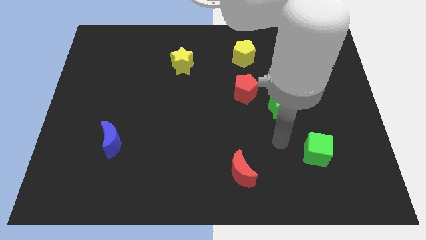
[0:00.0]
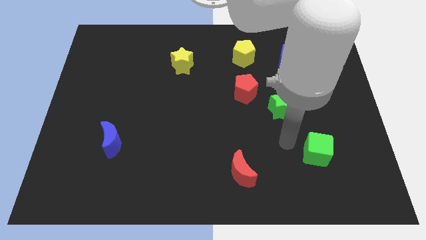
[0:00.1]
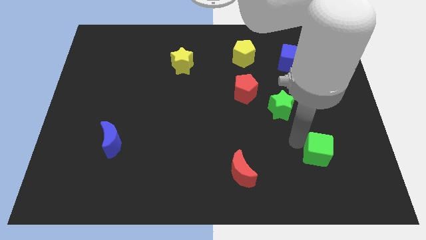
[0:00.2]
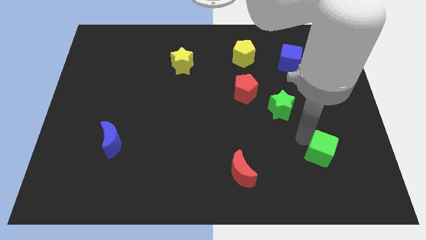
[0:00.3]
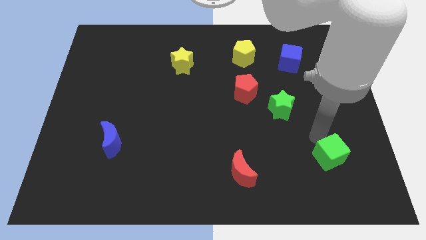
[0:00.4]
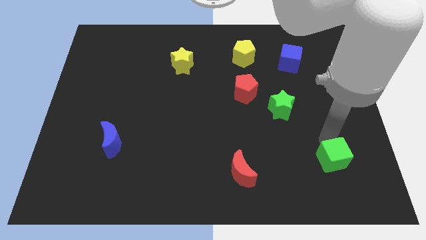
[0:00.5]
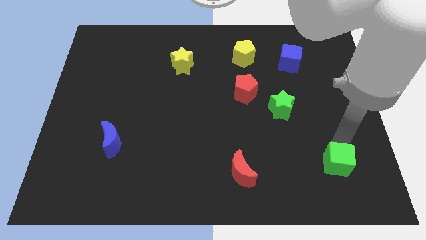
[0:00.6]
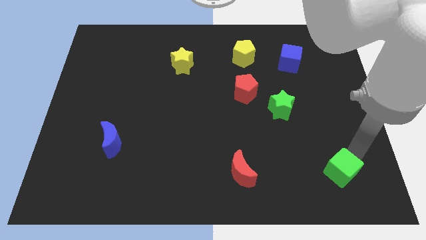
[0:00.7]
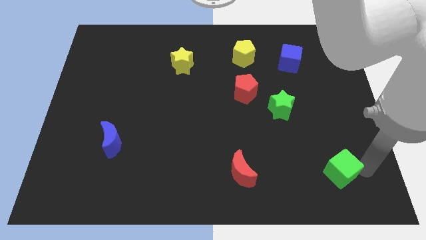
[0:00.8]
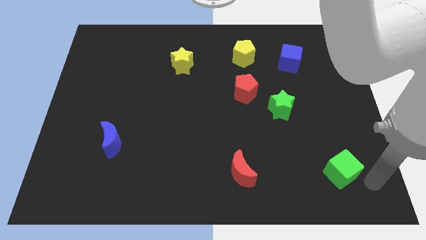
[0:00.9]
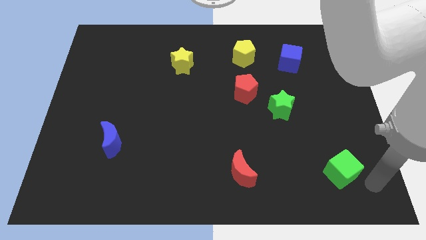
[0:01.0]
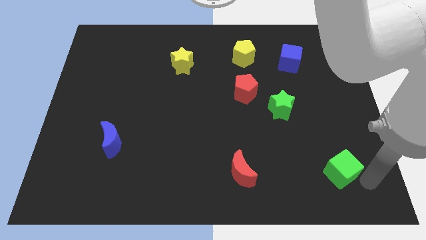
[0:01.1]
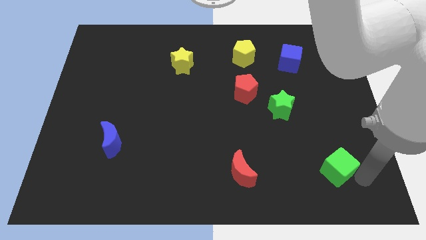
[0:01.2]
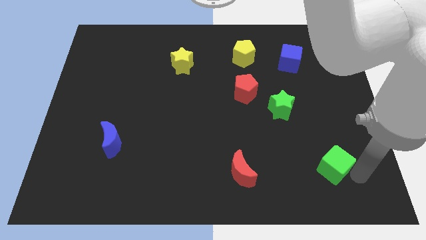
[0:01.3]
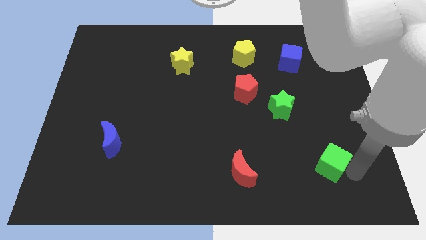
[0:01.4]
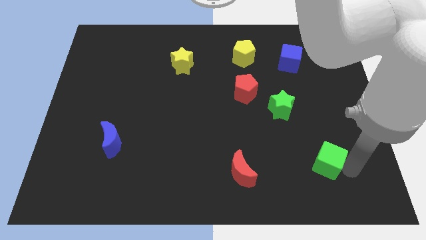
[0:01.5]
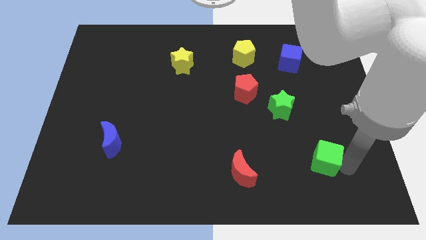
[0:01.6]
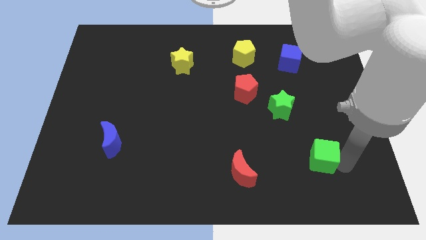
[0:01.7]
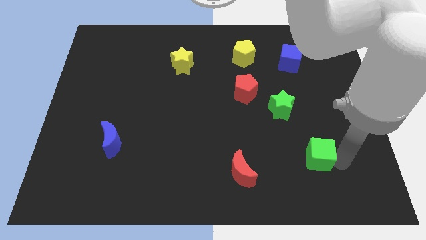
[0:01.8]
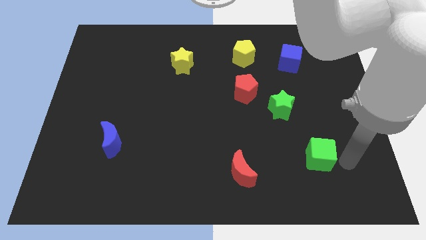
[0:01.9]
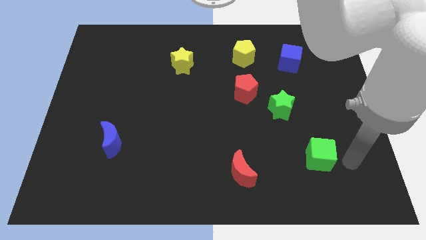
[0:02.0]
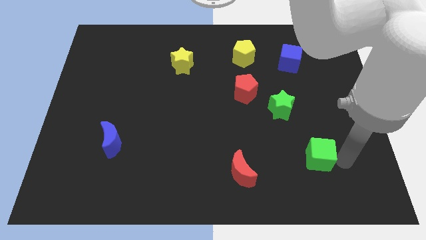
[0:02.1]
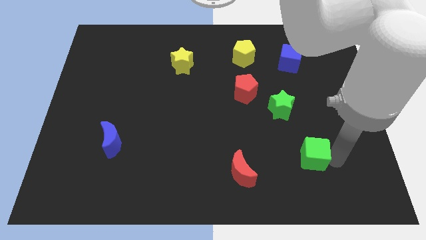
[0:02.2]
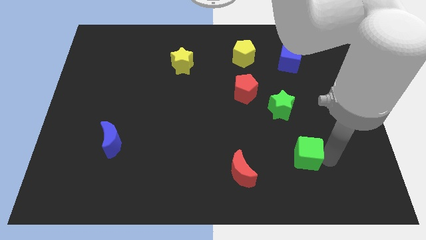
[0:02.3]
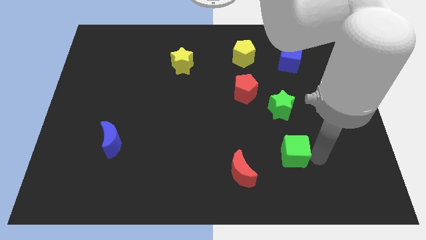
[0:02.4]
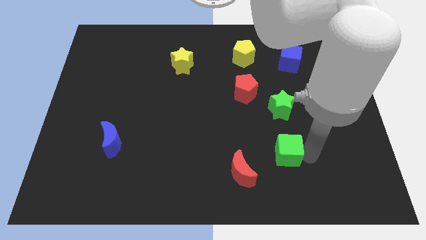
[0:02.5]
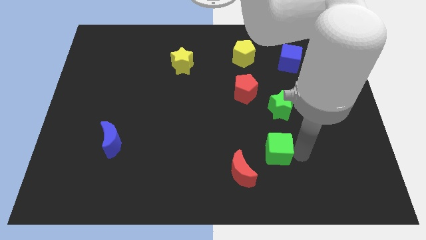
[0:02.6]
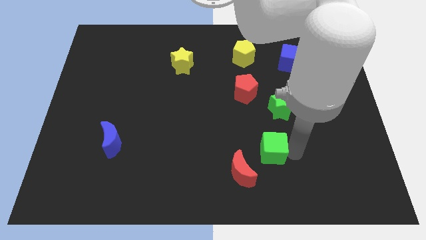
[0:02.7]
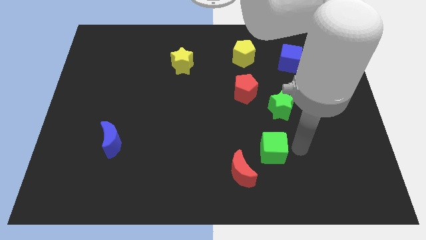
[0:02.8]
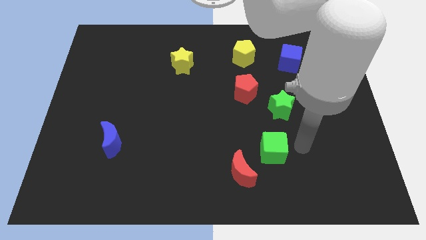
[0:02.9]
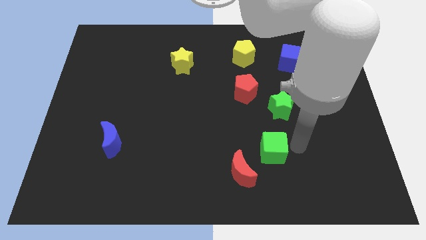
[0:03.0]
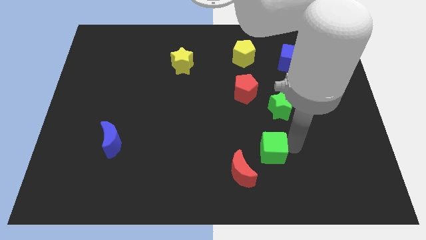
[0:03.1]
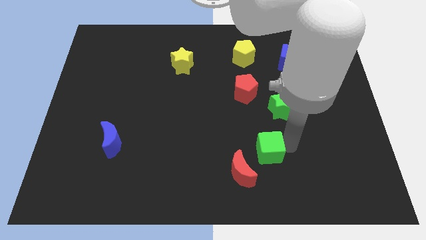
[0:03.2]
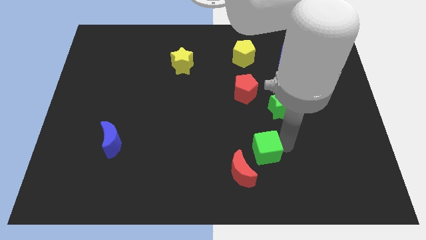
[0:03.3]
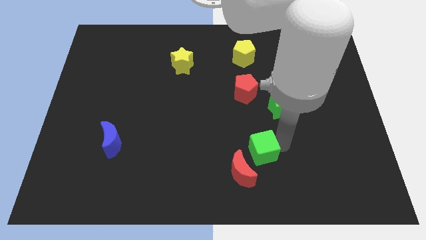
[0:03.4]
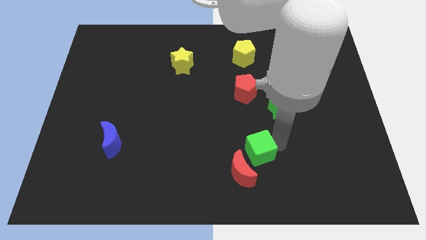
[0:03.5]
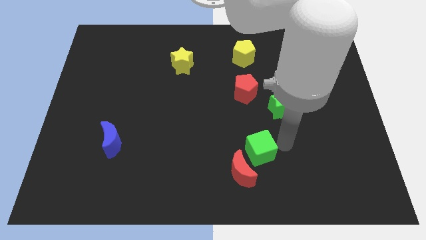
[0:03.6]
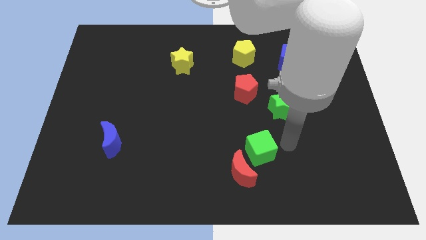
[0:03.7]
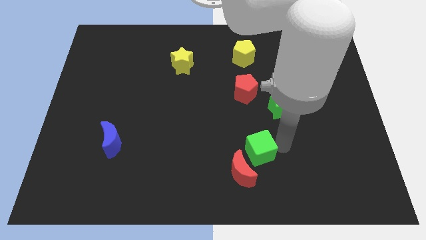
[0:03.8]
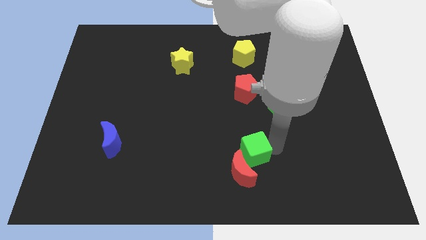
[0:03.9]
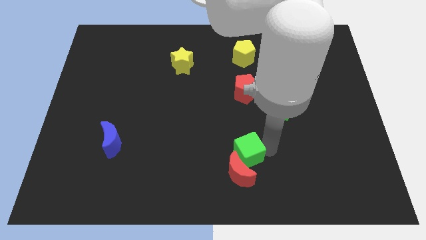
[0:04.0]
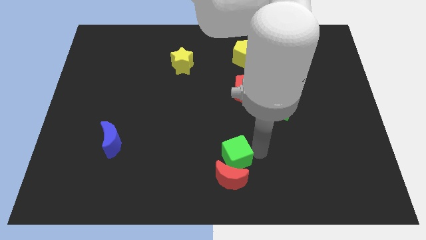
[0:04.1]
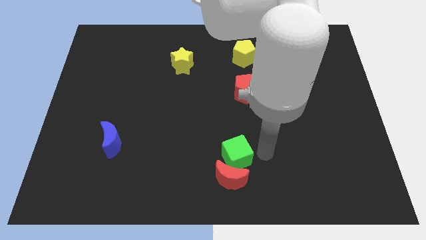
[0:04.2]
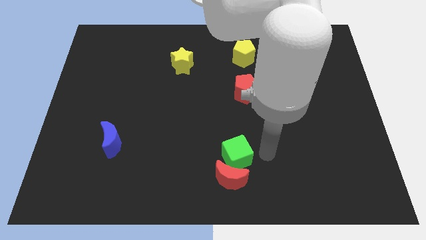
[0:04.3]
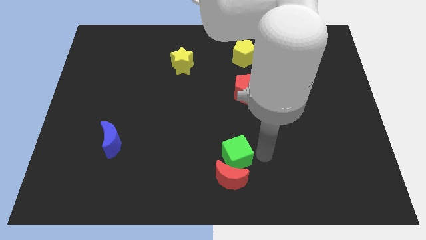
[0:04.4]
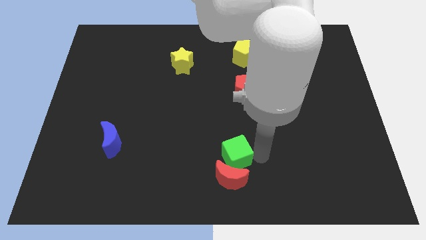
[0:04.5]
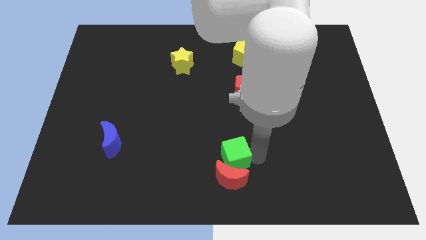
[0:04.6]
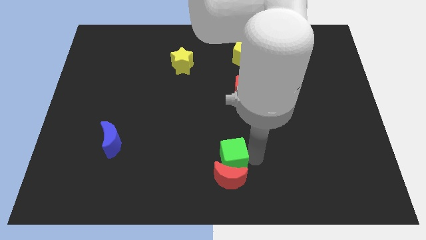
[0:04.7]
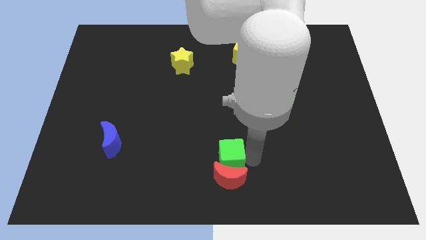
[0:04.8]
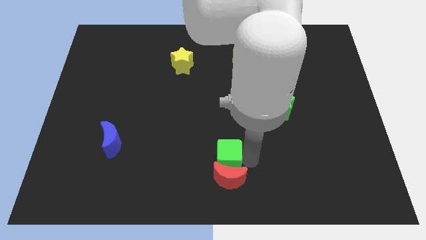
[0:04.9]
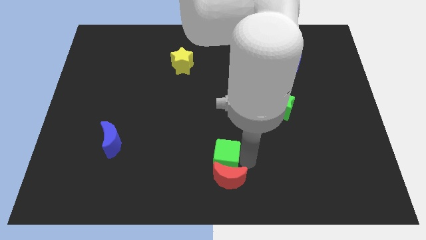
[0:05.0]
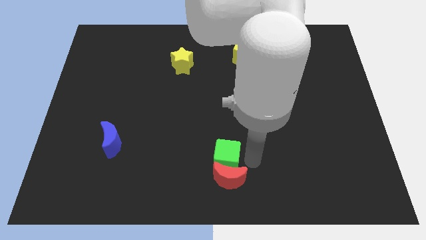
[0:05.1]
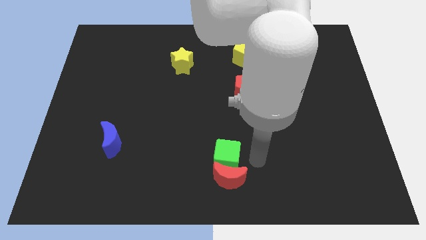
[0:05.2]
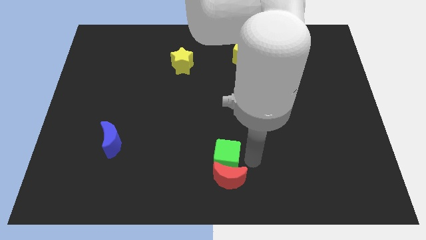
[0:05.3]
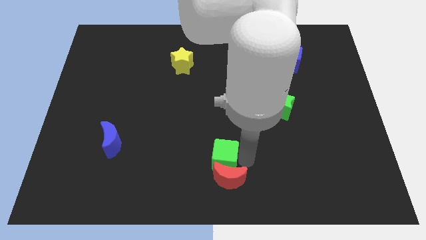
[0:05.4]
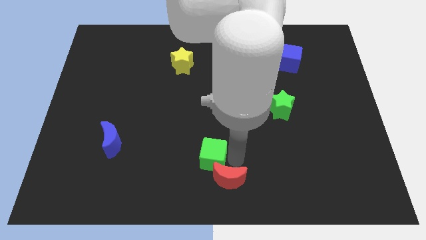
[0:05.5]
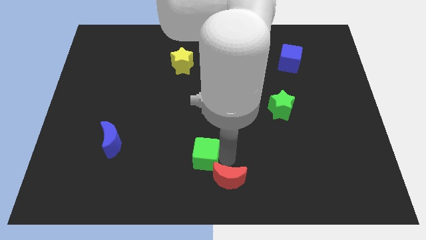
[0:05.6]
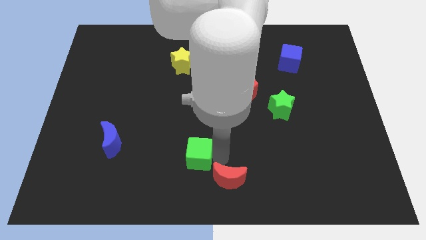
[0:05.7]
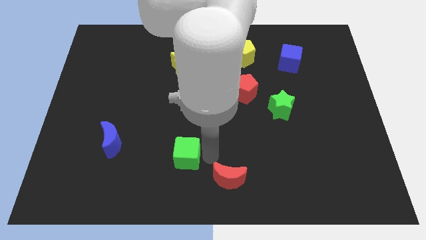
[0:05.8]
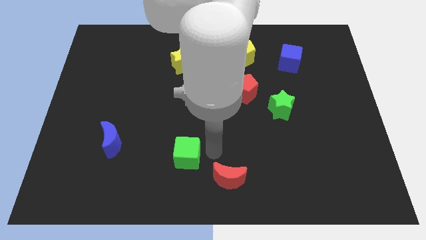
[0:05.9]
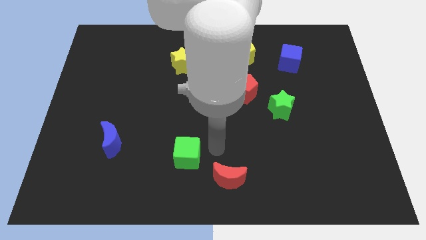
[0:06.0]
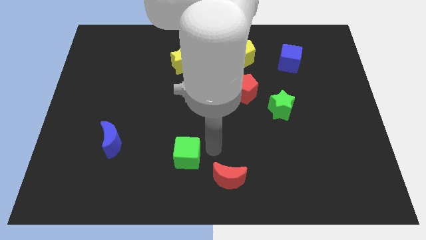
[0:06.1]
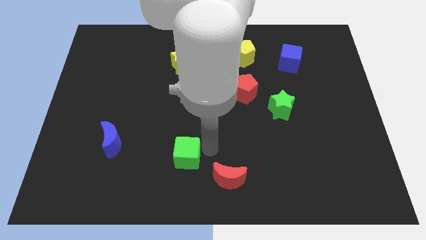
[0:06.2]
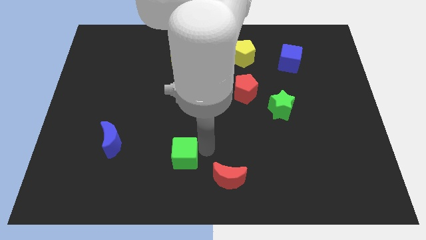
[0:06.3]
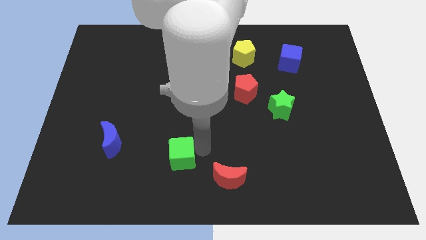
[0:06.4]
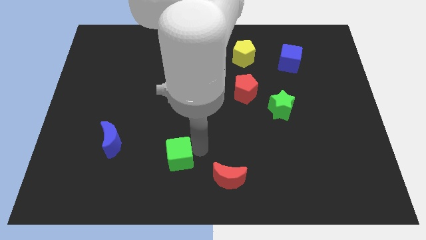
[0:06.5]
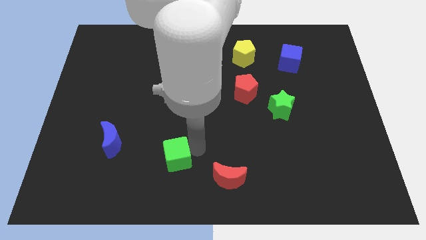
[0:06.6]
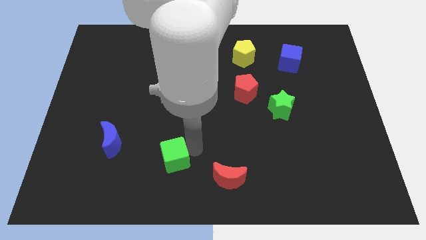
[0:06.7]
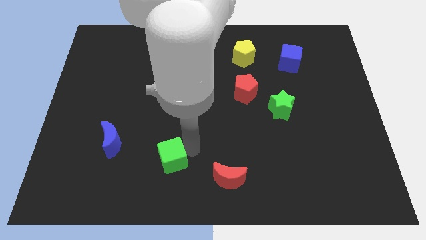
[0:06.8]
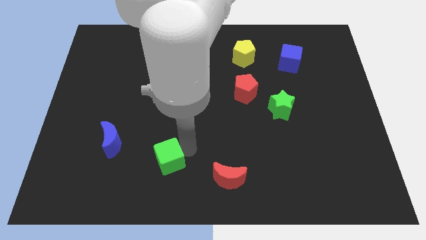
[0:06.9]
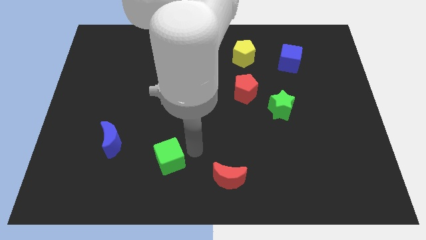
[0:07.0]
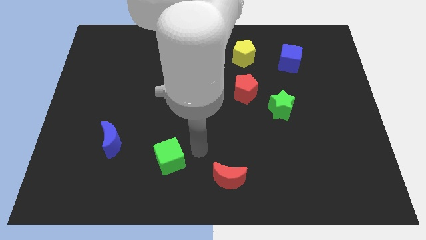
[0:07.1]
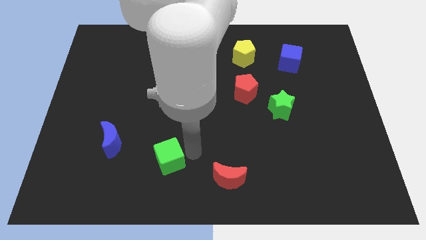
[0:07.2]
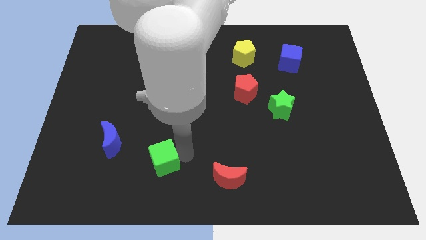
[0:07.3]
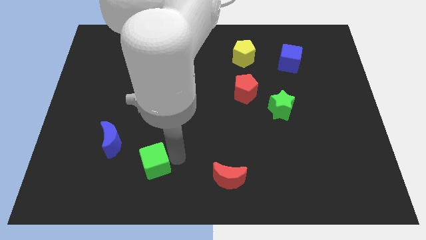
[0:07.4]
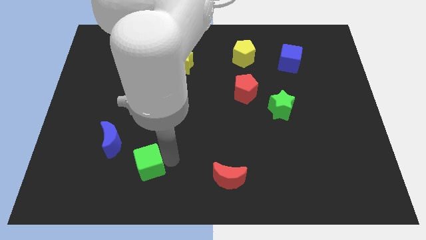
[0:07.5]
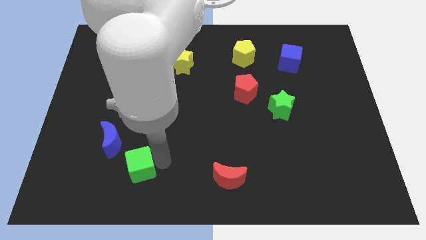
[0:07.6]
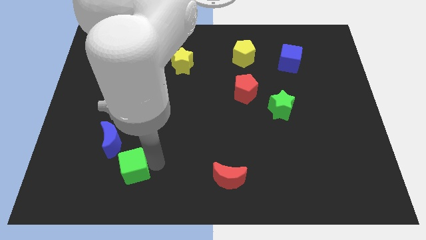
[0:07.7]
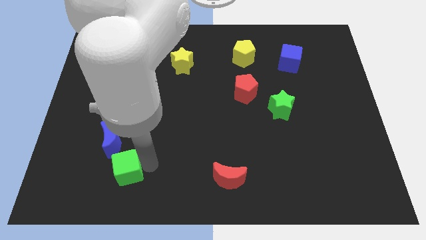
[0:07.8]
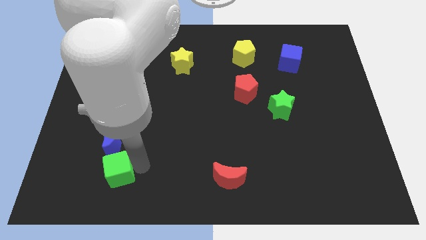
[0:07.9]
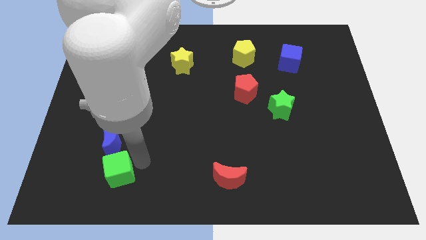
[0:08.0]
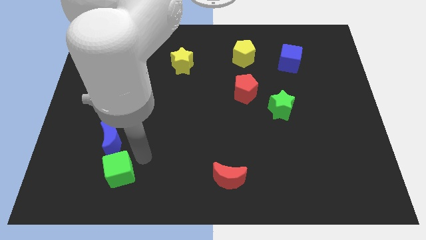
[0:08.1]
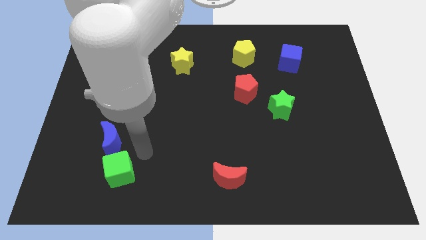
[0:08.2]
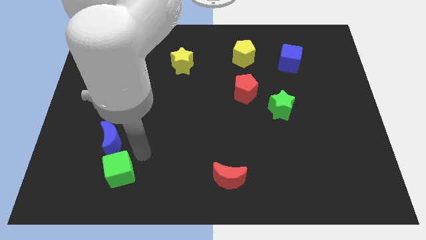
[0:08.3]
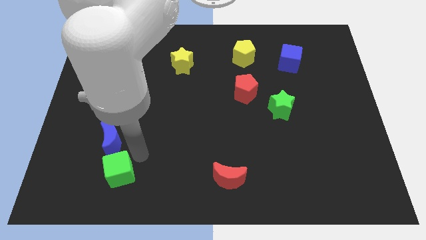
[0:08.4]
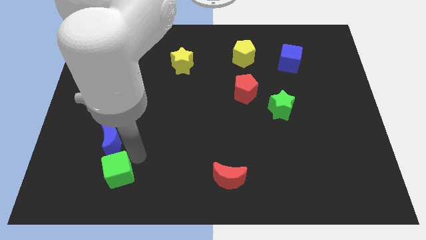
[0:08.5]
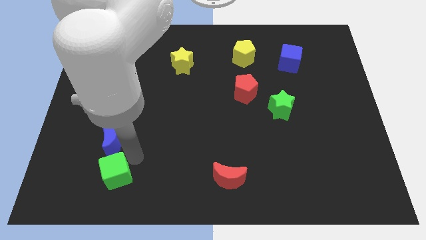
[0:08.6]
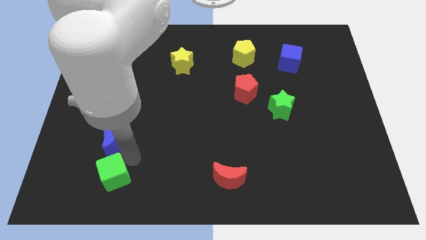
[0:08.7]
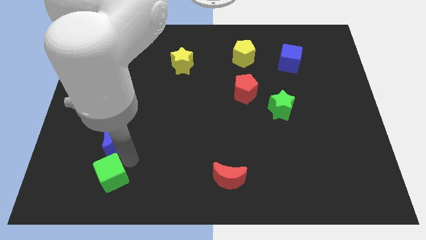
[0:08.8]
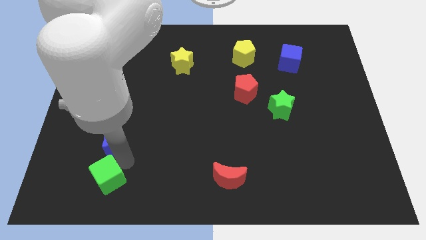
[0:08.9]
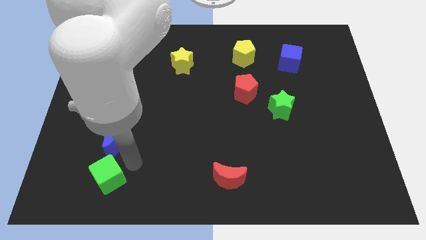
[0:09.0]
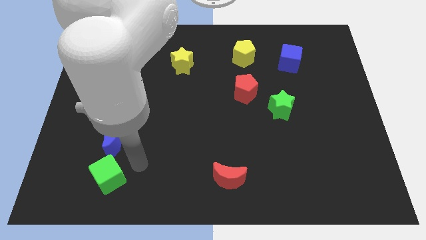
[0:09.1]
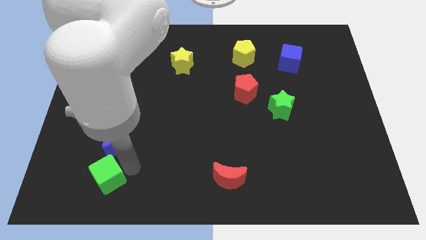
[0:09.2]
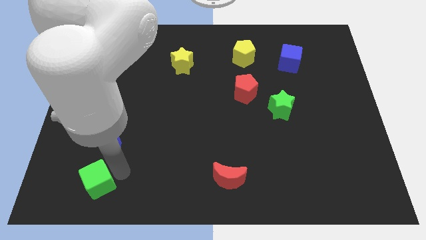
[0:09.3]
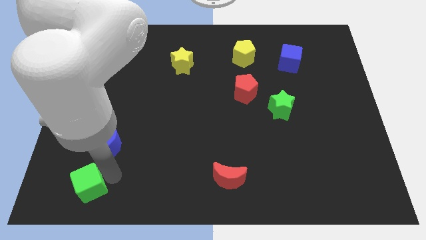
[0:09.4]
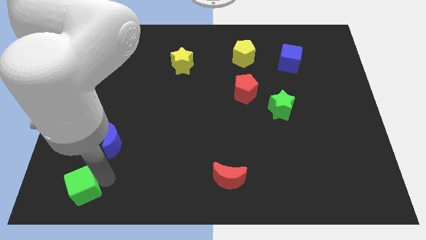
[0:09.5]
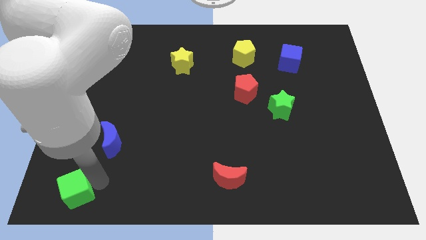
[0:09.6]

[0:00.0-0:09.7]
slide the green cube to the lower left corner
